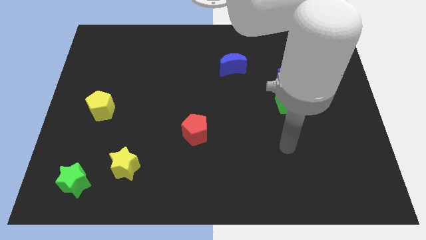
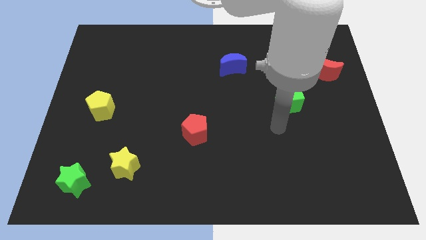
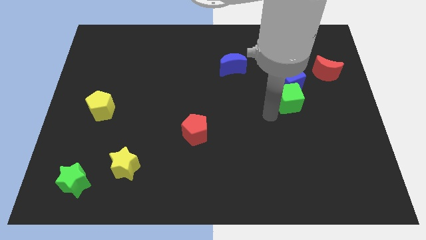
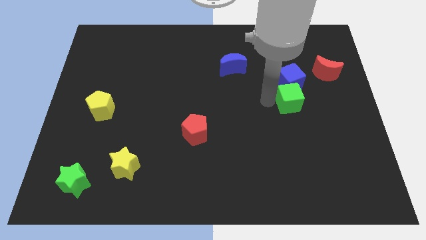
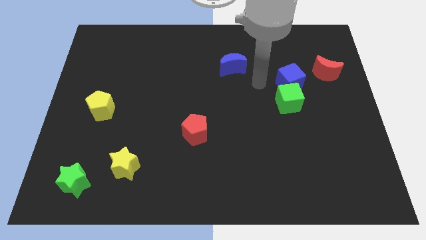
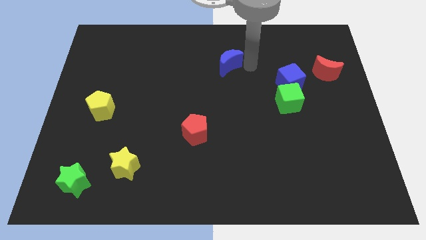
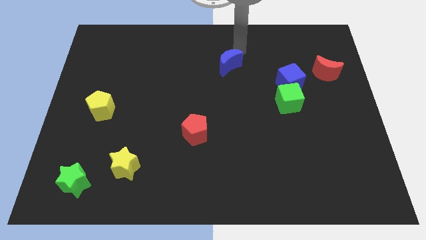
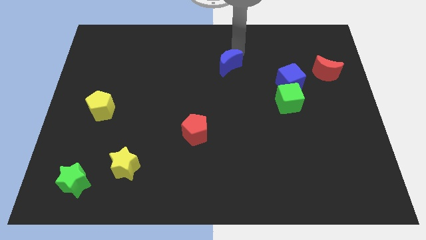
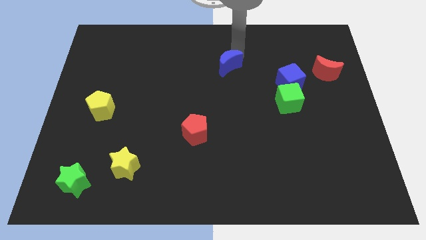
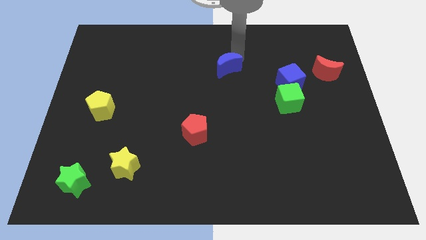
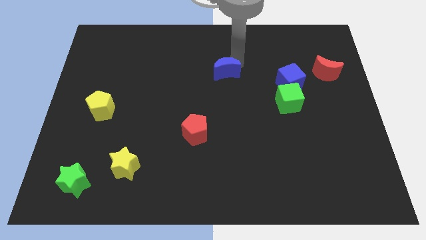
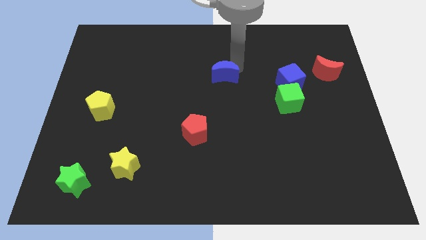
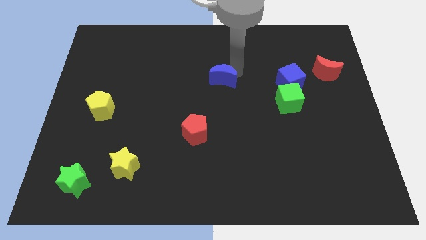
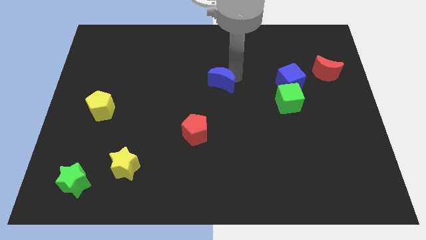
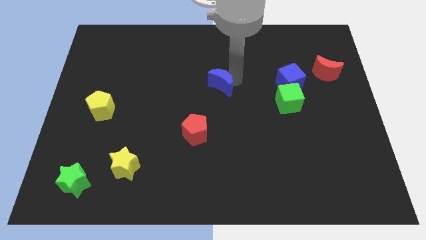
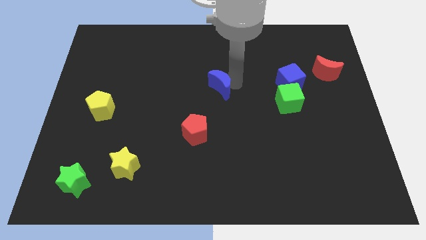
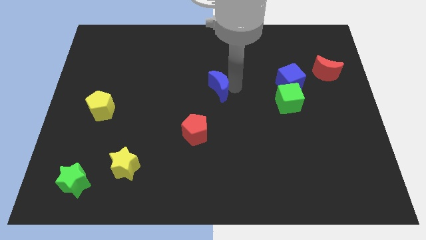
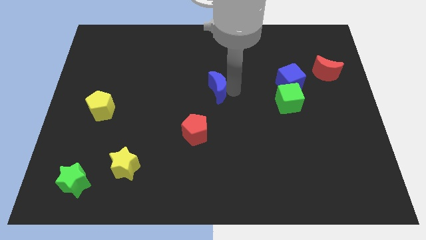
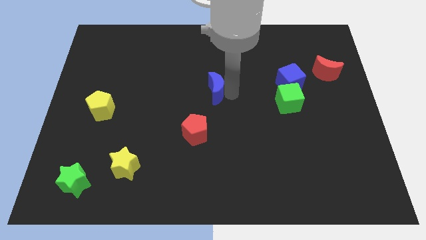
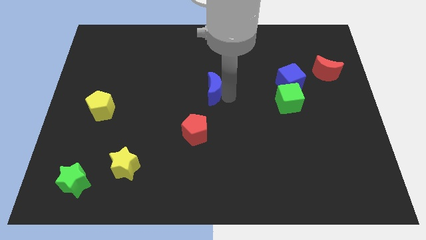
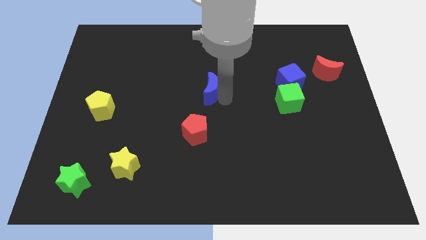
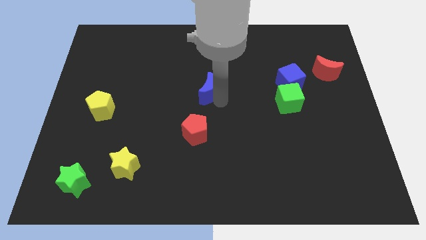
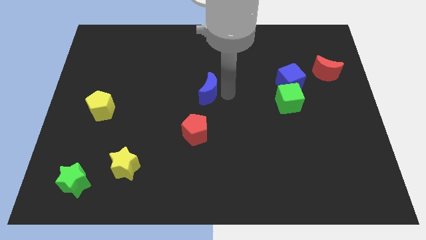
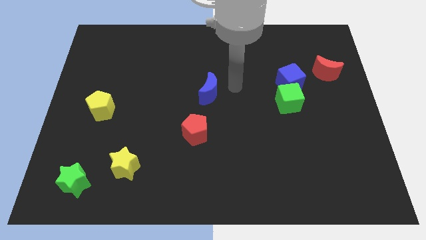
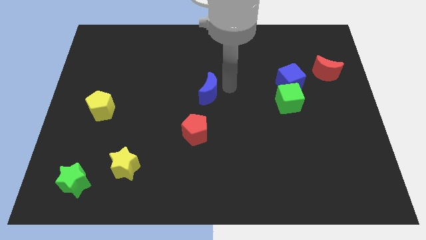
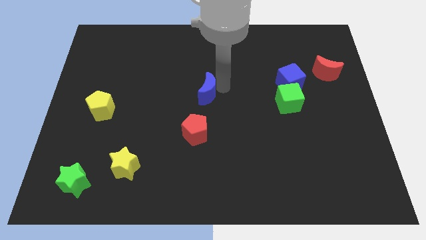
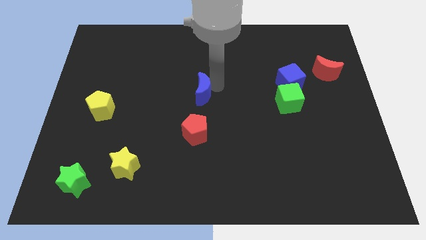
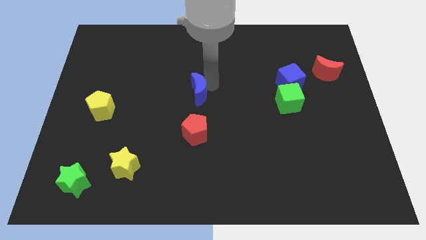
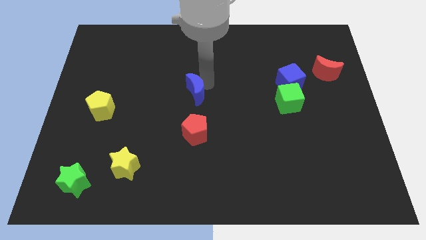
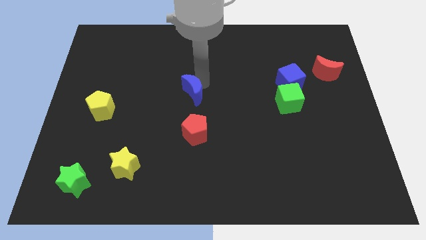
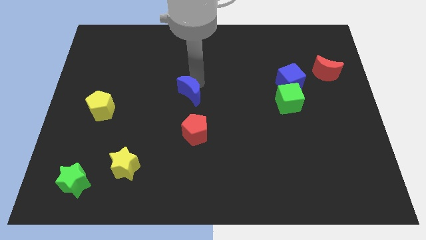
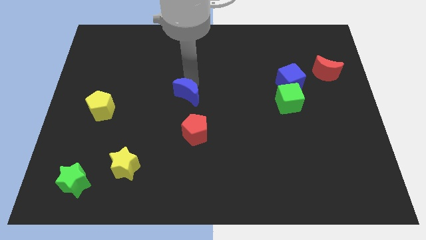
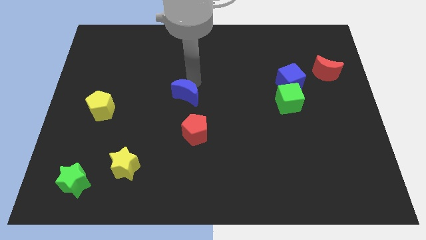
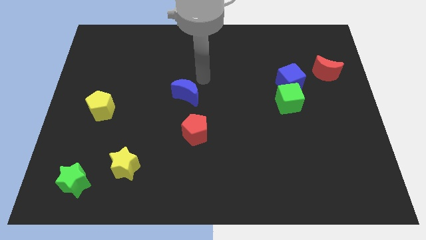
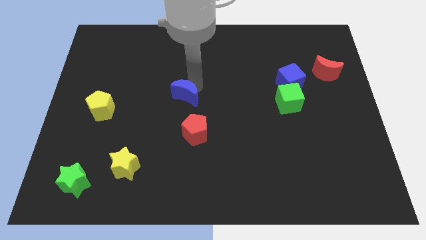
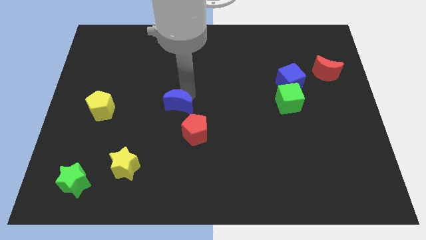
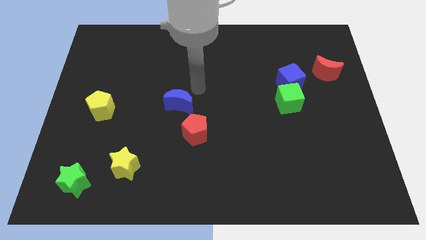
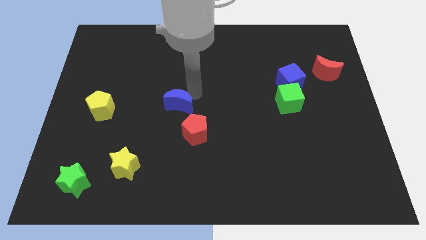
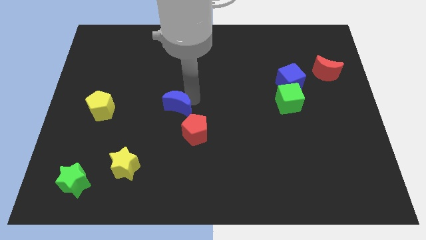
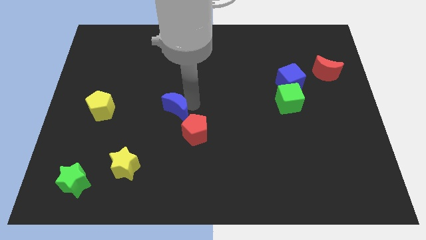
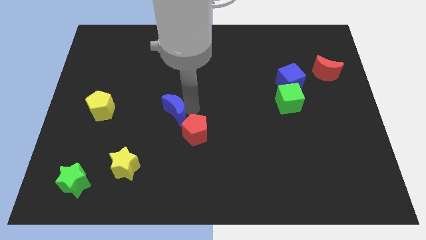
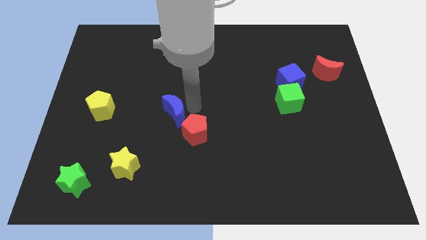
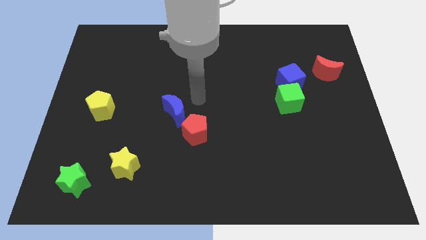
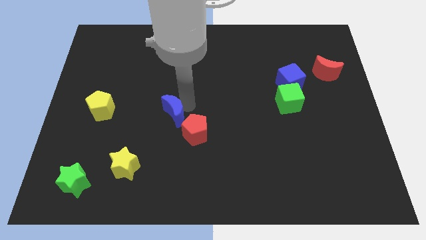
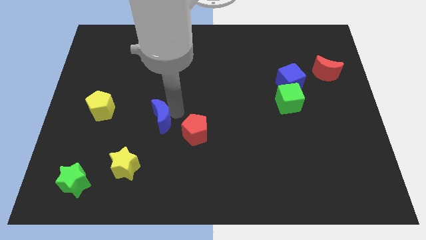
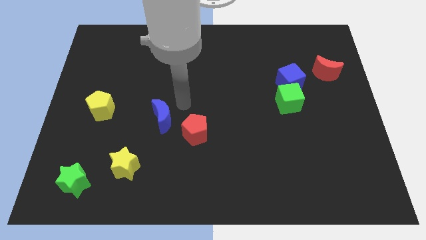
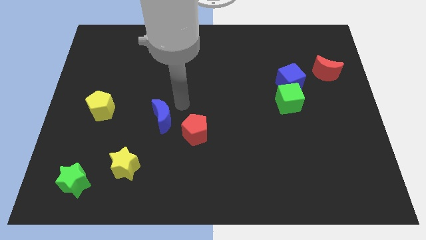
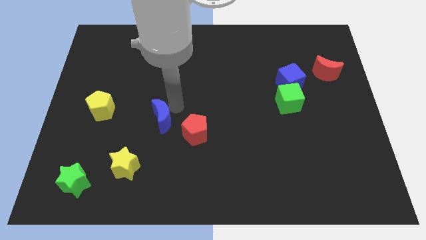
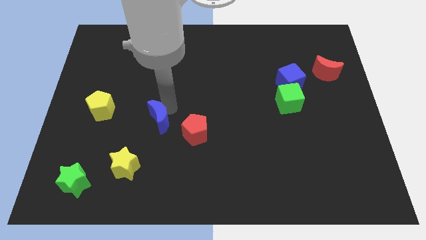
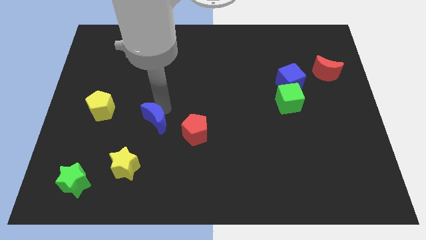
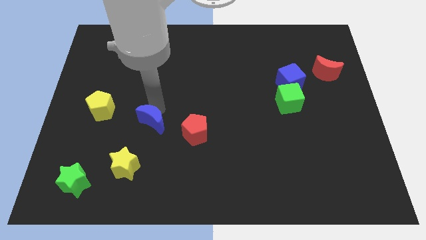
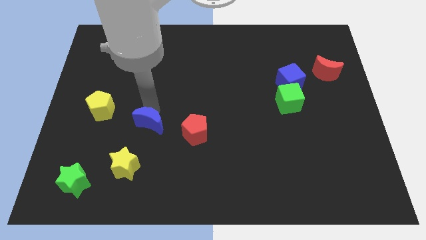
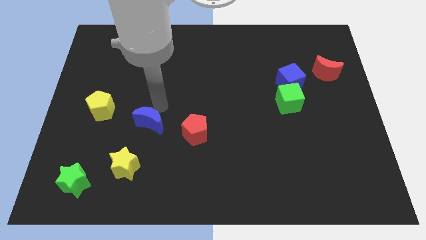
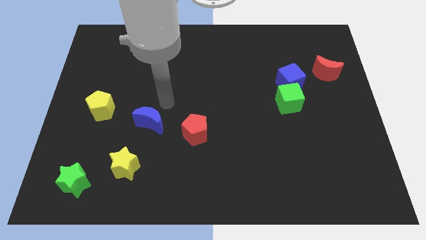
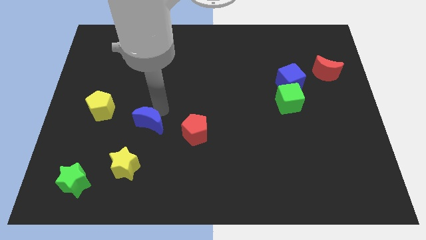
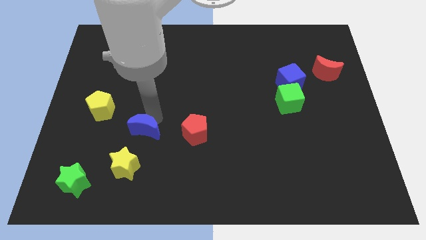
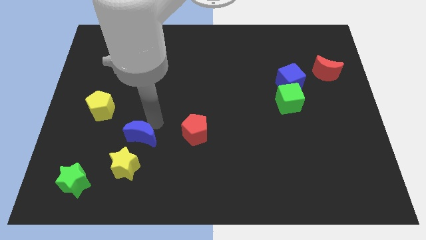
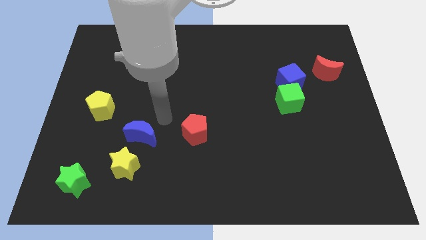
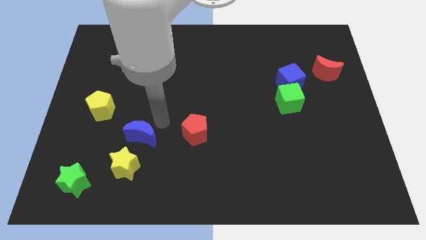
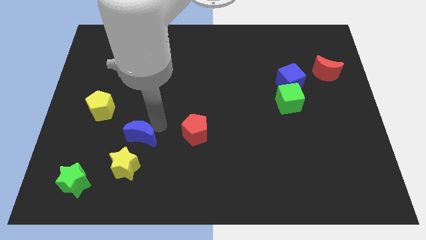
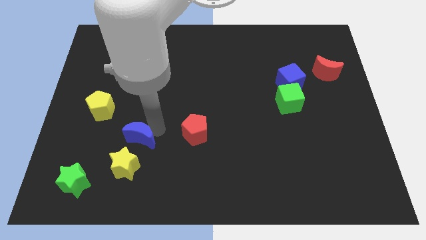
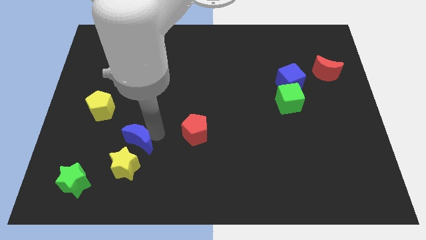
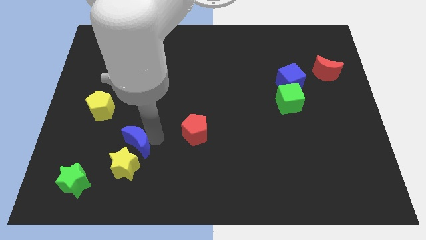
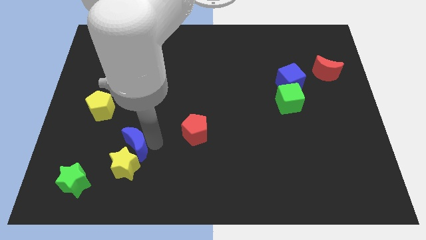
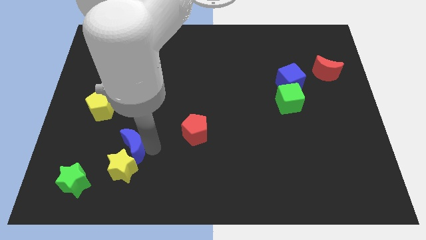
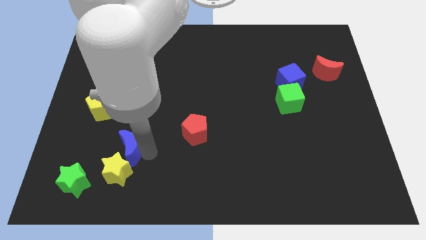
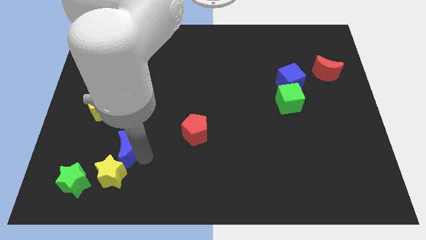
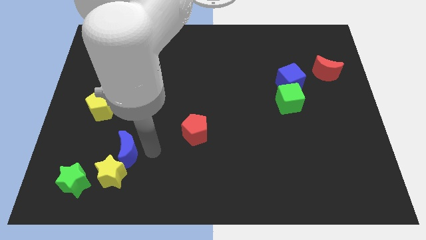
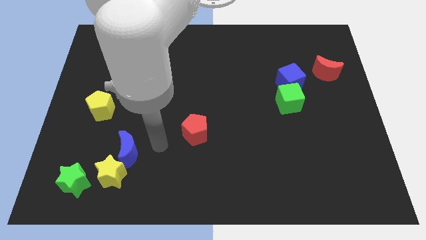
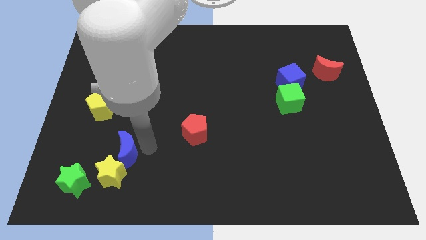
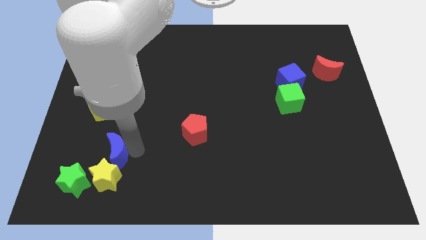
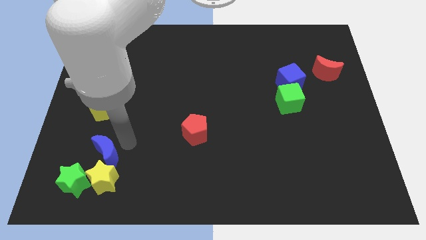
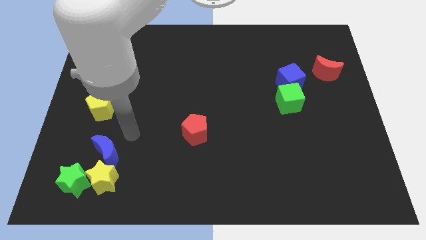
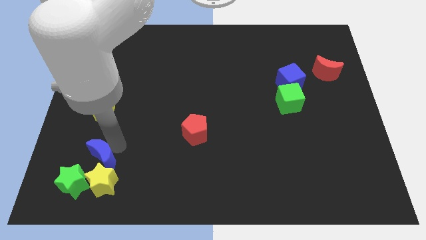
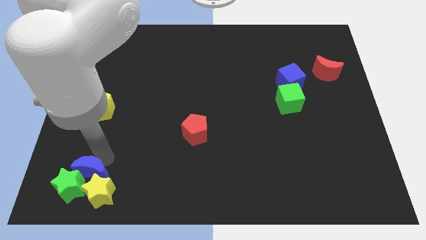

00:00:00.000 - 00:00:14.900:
slide the blue moon close to the green star

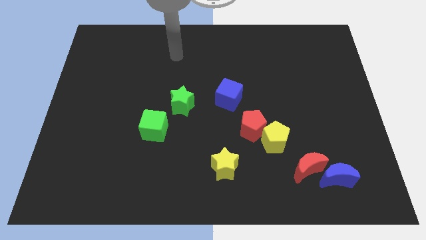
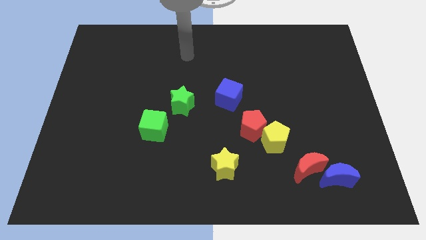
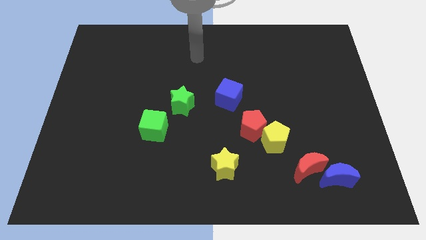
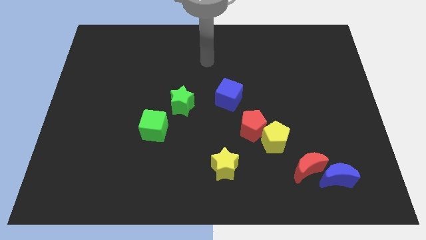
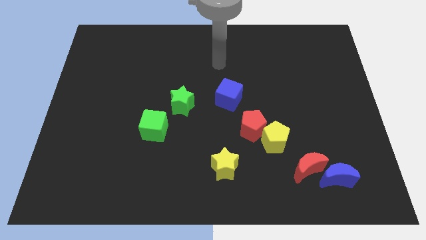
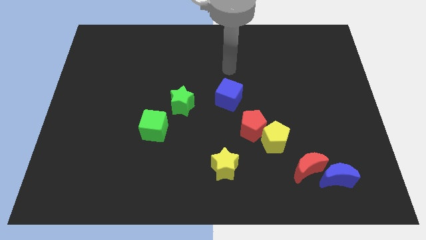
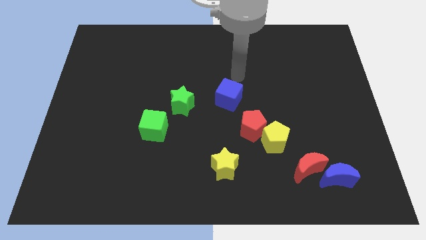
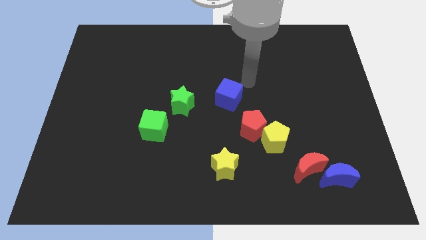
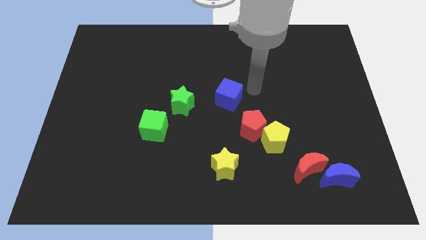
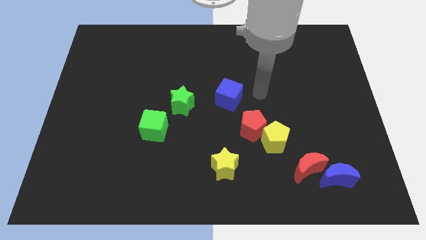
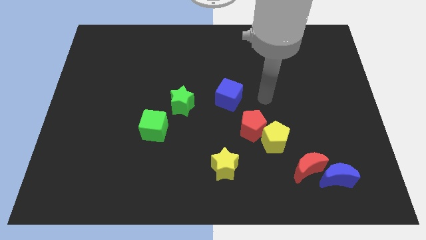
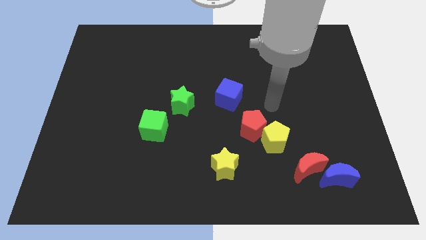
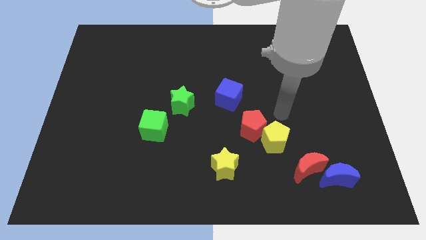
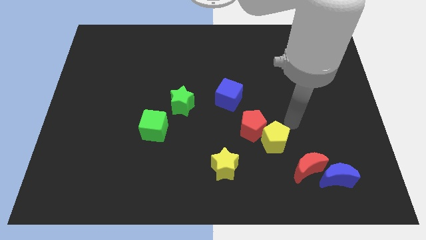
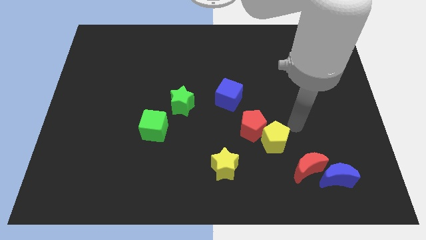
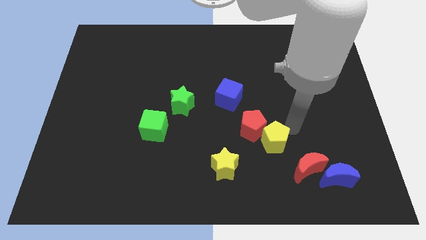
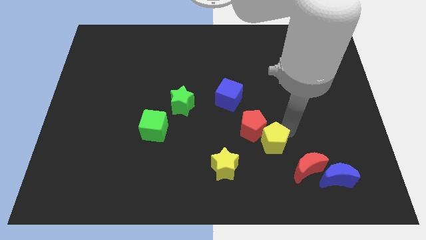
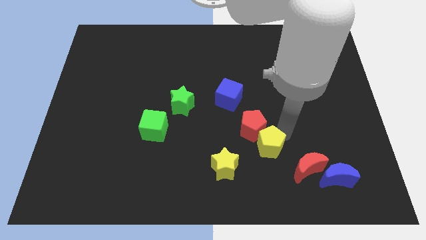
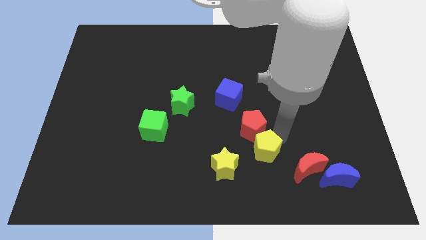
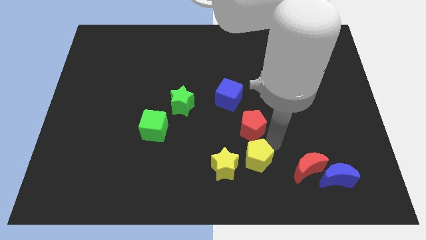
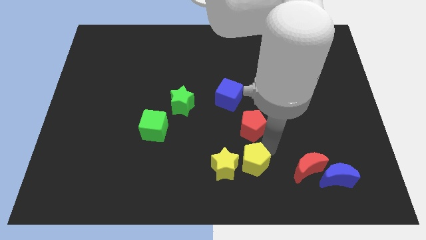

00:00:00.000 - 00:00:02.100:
slide the yellow pentagon close to the yellow star
